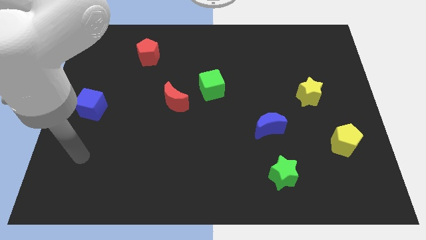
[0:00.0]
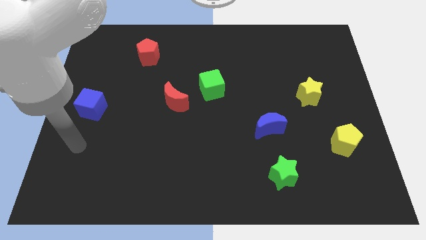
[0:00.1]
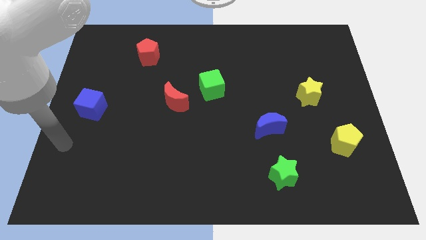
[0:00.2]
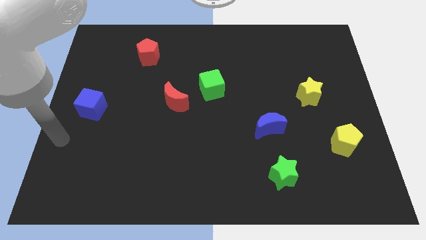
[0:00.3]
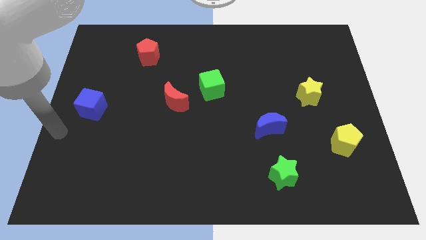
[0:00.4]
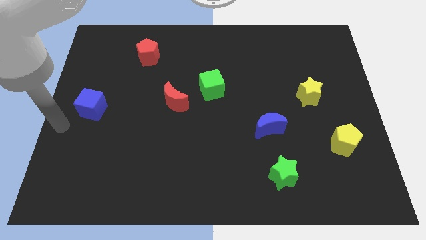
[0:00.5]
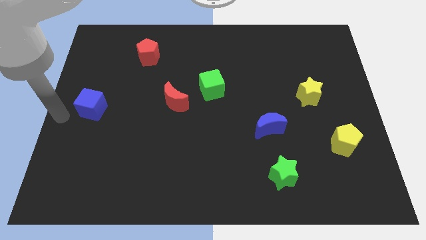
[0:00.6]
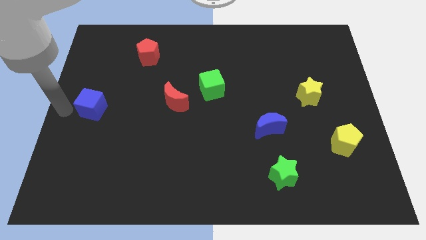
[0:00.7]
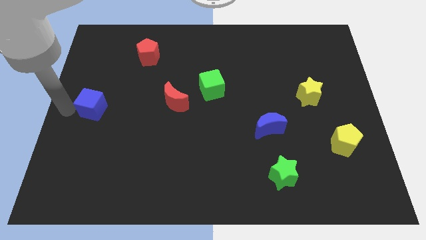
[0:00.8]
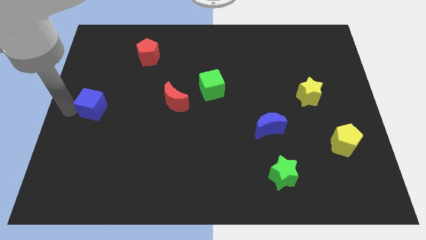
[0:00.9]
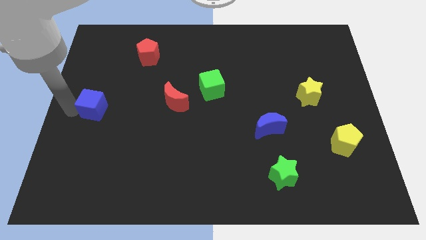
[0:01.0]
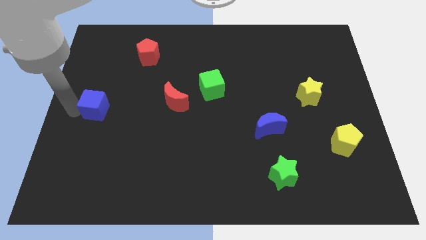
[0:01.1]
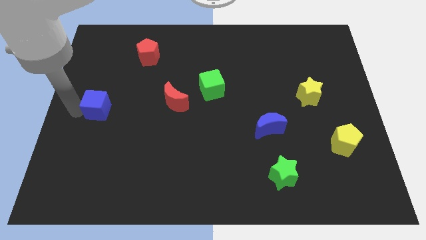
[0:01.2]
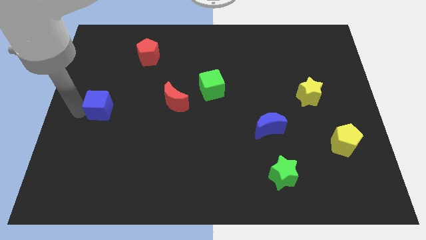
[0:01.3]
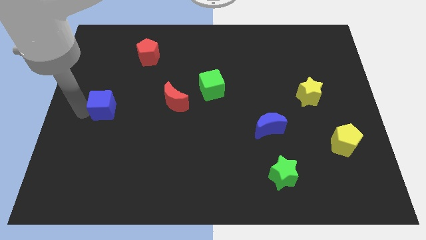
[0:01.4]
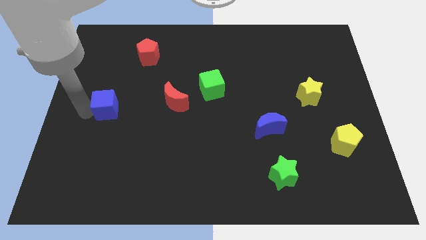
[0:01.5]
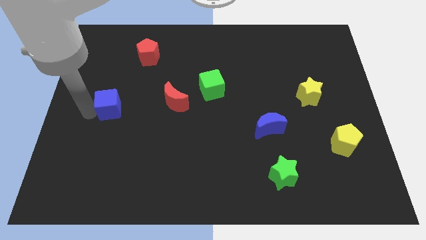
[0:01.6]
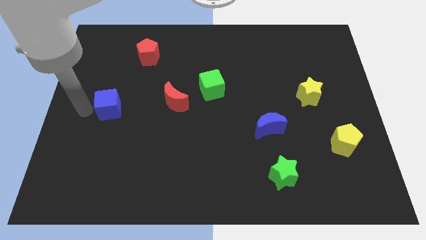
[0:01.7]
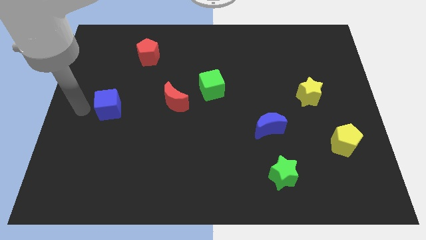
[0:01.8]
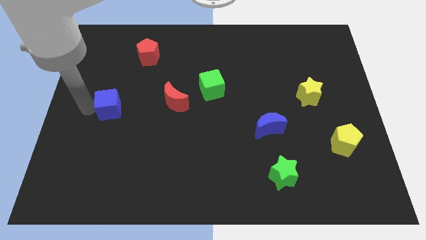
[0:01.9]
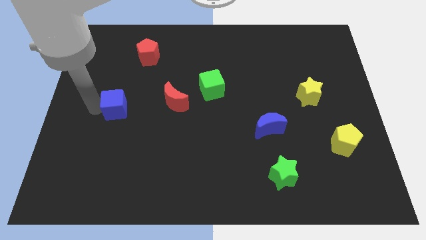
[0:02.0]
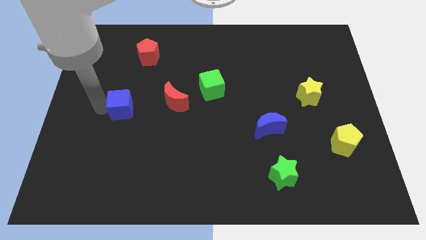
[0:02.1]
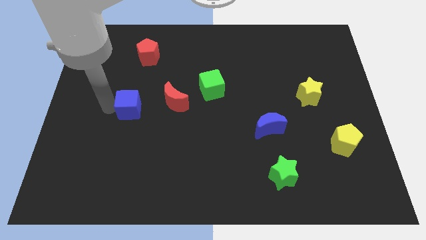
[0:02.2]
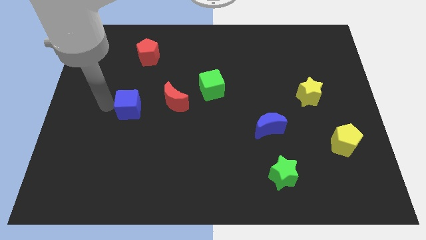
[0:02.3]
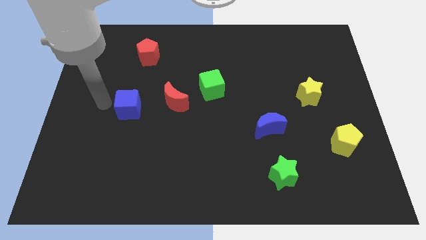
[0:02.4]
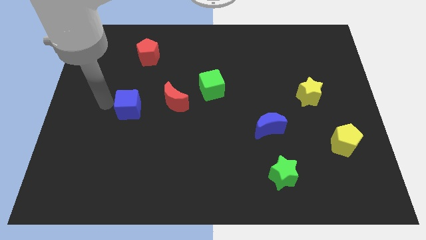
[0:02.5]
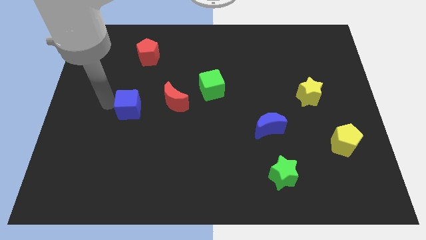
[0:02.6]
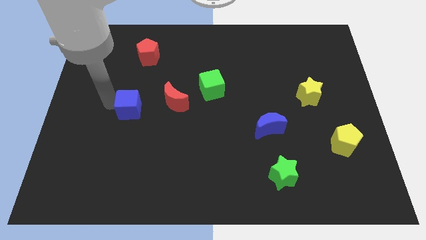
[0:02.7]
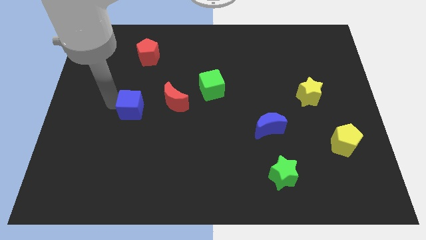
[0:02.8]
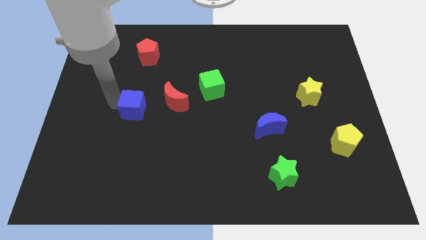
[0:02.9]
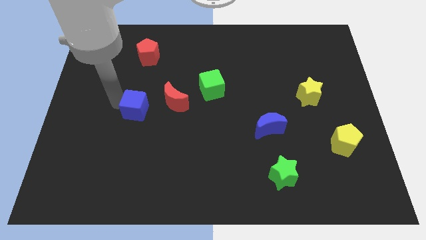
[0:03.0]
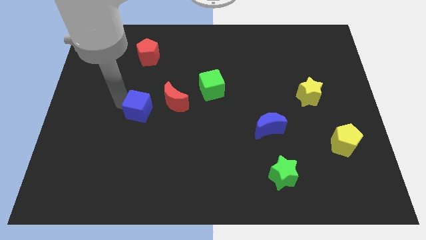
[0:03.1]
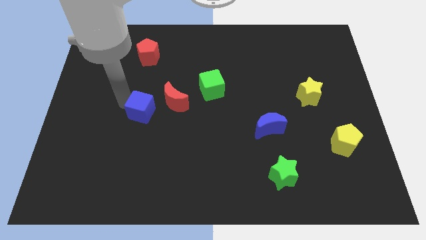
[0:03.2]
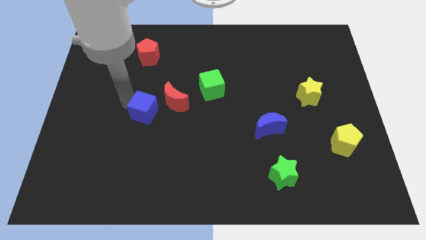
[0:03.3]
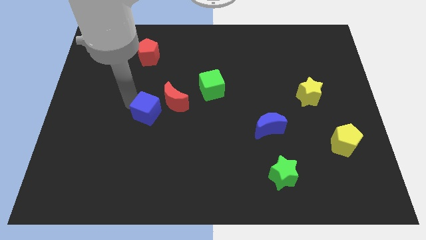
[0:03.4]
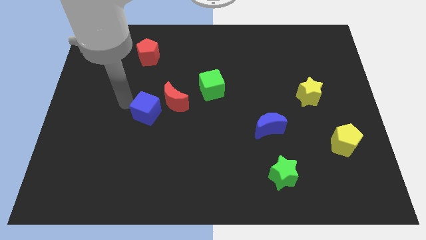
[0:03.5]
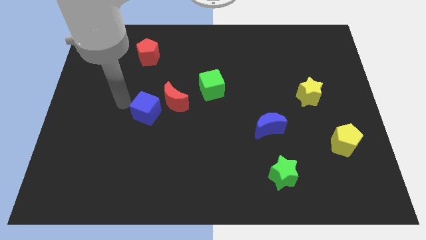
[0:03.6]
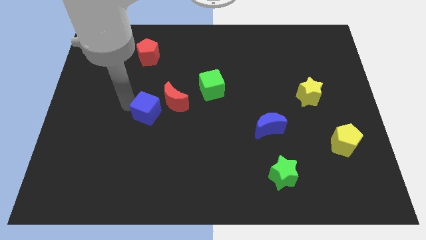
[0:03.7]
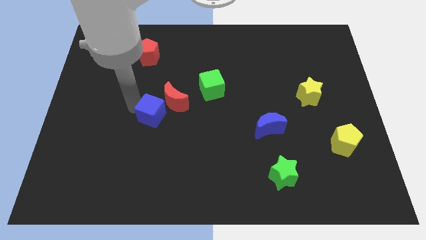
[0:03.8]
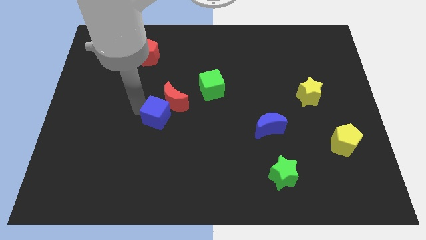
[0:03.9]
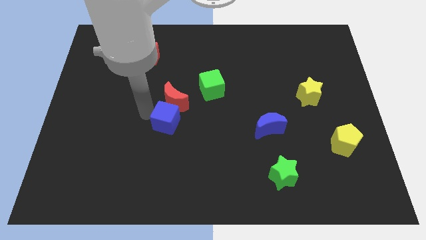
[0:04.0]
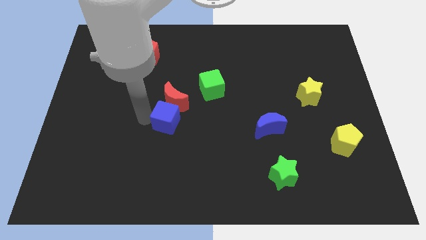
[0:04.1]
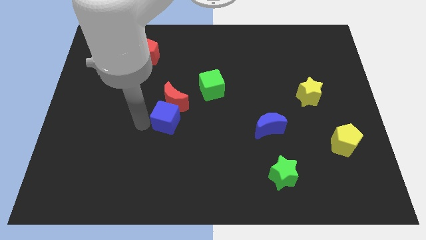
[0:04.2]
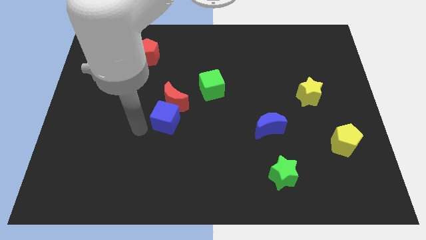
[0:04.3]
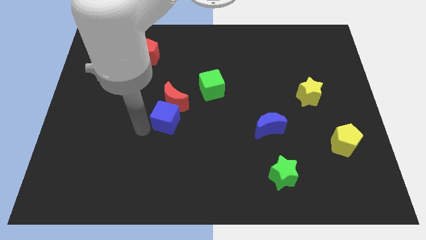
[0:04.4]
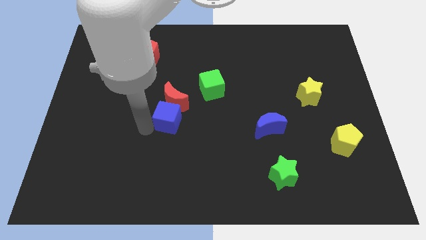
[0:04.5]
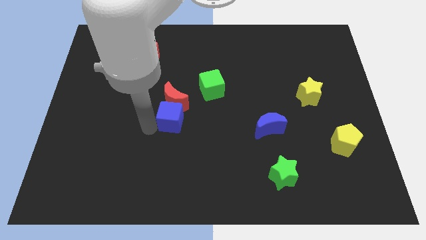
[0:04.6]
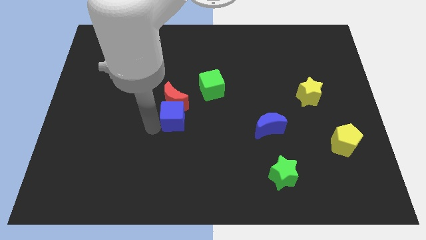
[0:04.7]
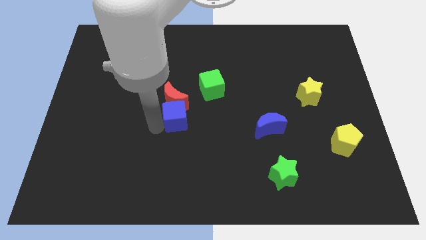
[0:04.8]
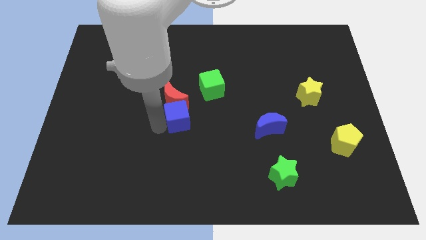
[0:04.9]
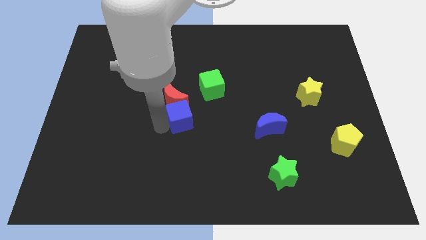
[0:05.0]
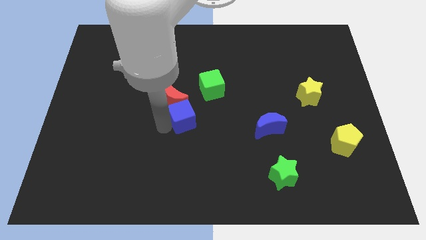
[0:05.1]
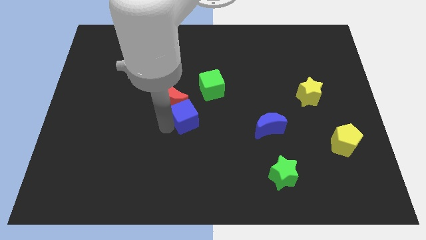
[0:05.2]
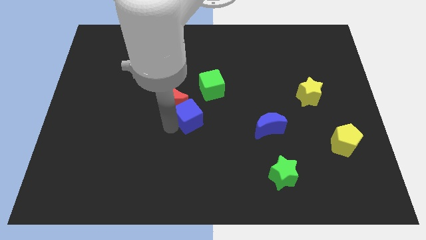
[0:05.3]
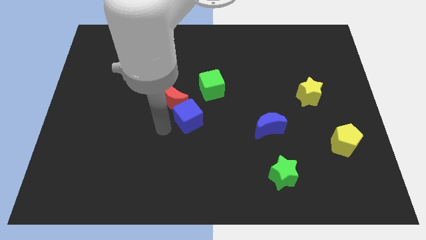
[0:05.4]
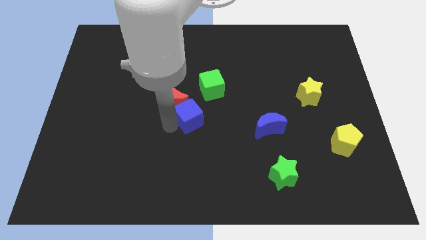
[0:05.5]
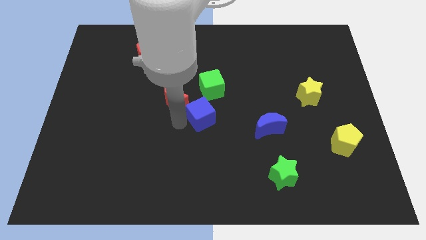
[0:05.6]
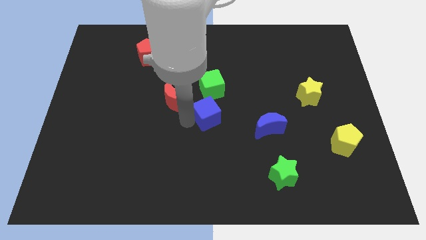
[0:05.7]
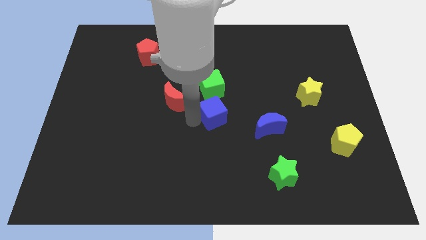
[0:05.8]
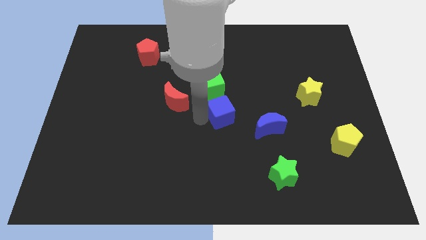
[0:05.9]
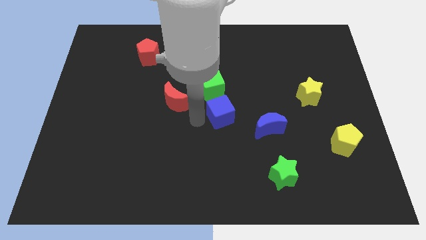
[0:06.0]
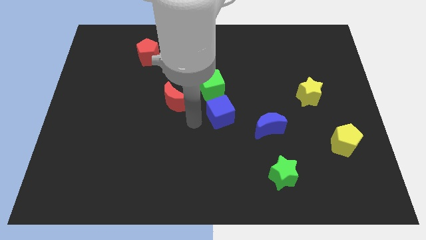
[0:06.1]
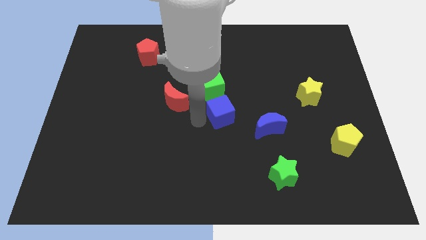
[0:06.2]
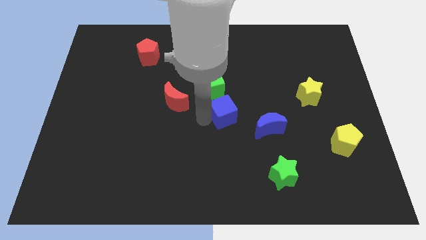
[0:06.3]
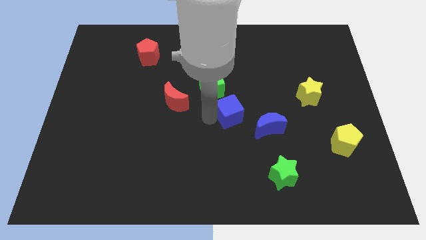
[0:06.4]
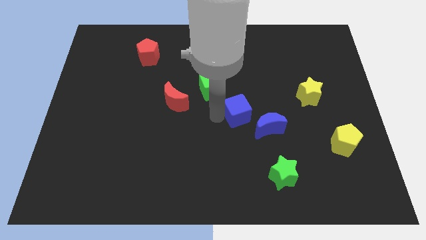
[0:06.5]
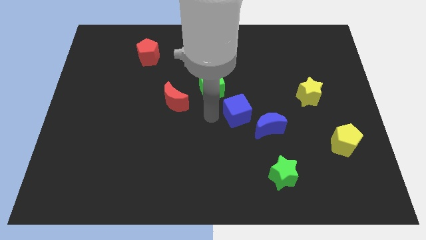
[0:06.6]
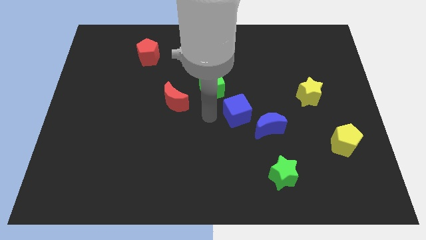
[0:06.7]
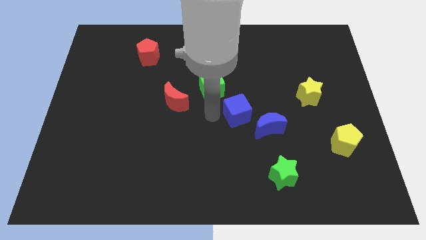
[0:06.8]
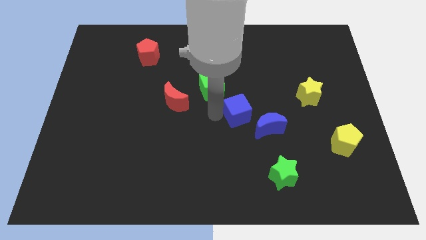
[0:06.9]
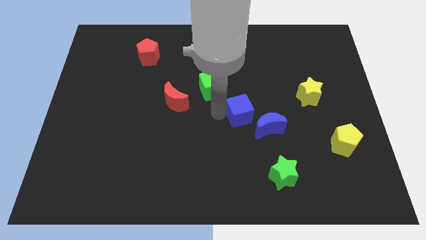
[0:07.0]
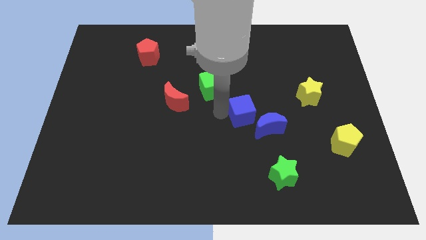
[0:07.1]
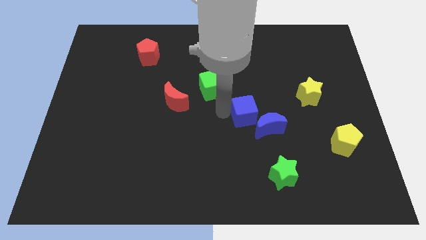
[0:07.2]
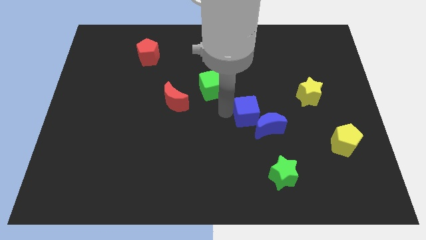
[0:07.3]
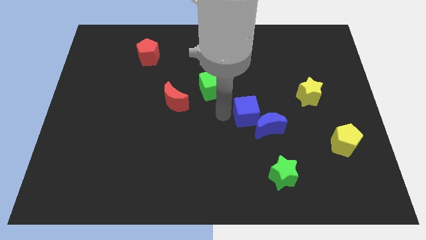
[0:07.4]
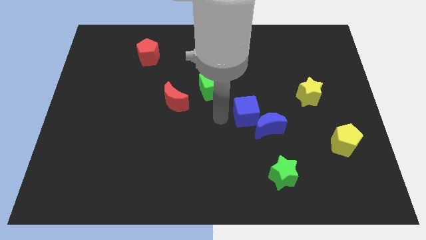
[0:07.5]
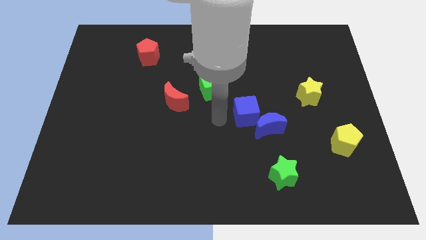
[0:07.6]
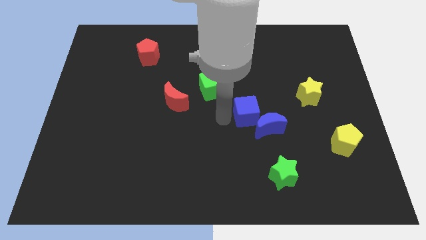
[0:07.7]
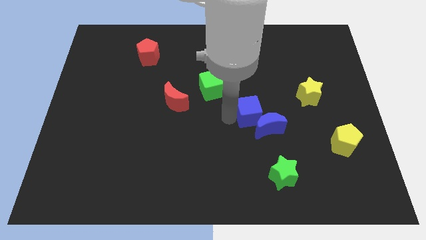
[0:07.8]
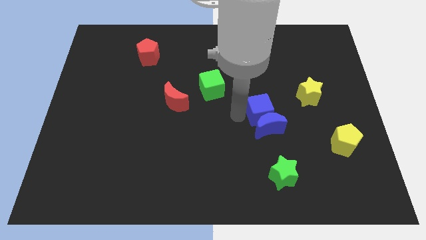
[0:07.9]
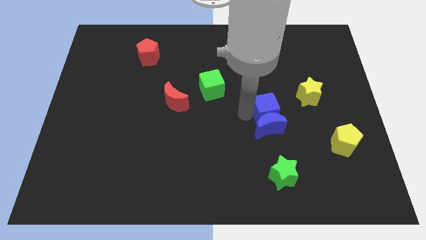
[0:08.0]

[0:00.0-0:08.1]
slide the blue cube to the bottom left of the yellow star
